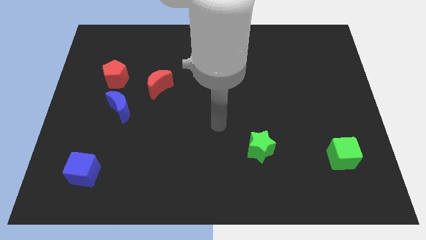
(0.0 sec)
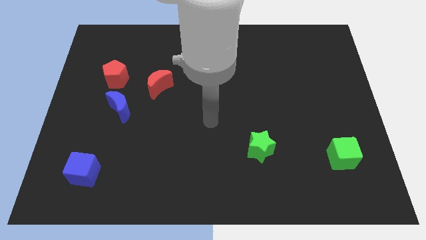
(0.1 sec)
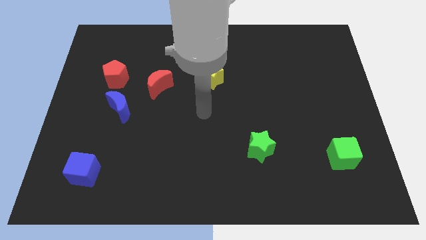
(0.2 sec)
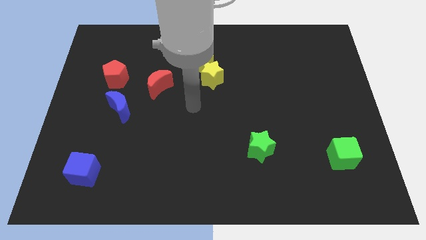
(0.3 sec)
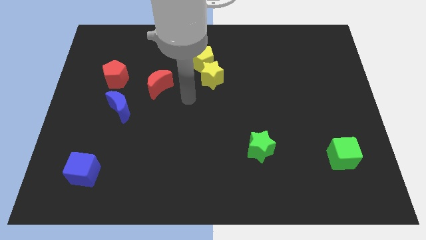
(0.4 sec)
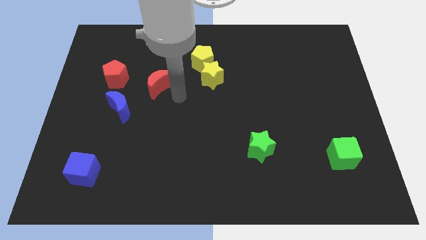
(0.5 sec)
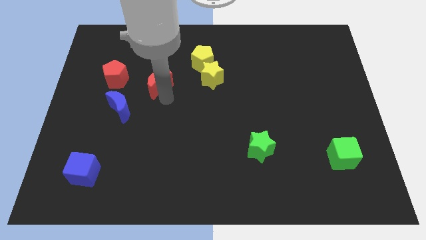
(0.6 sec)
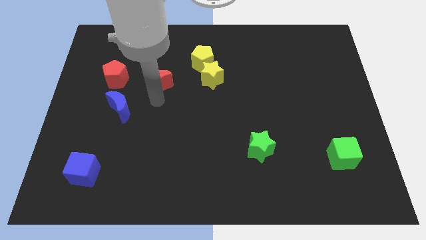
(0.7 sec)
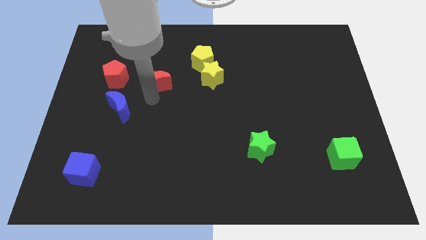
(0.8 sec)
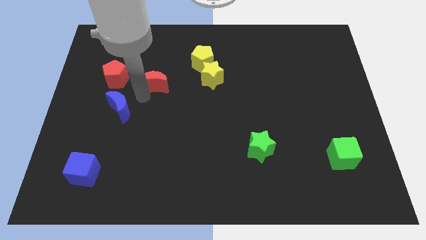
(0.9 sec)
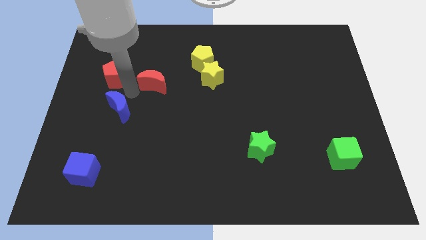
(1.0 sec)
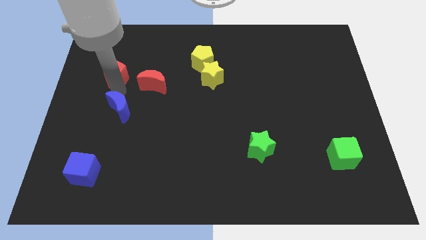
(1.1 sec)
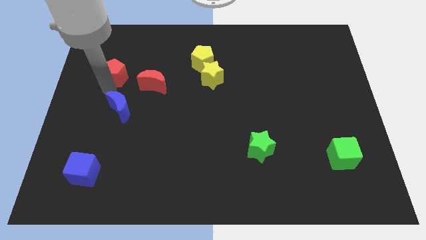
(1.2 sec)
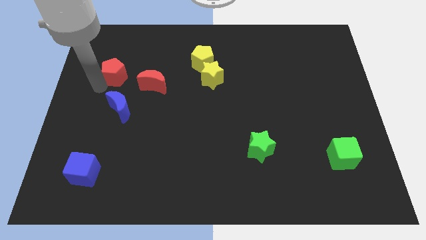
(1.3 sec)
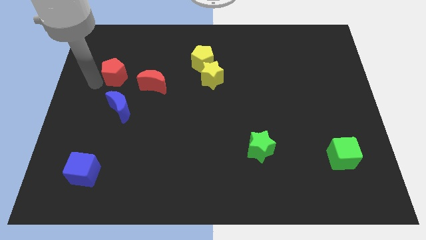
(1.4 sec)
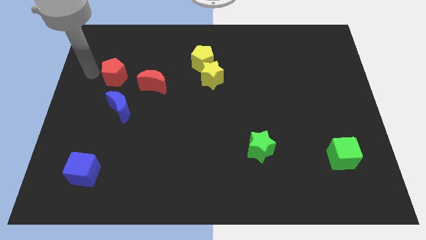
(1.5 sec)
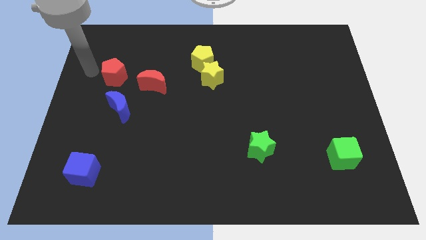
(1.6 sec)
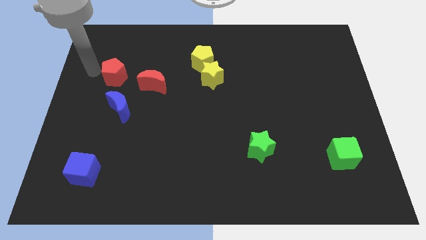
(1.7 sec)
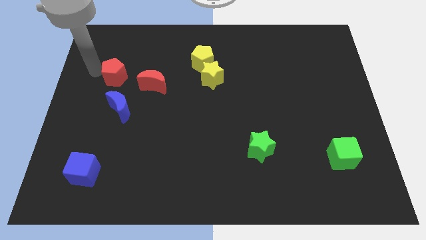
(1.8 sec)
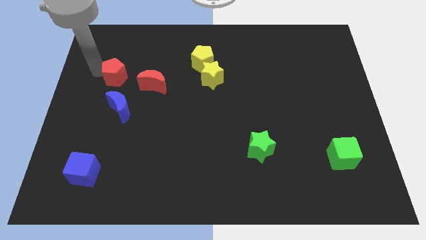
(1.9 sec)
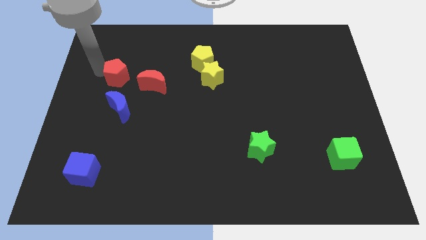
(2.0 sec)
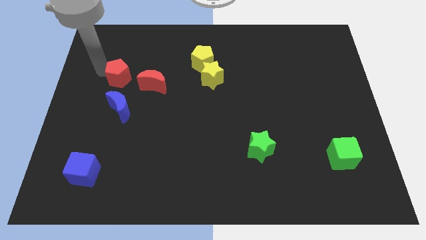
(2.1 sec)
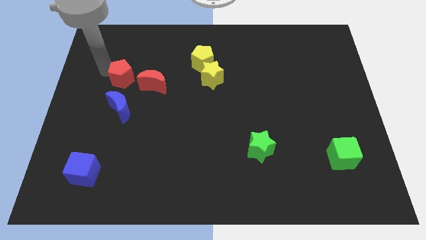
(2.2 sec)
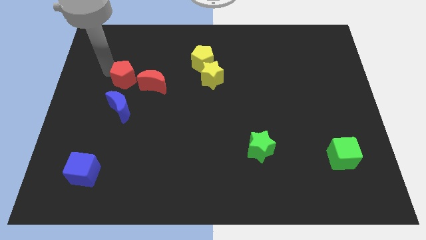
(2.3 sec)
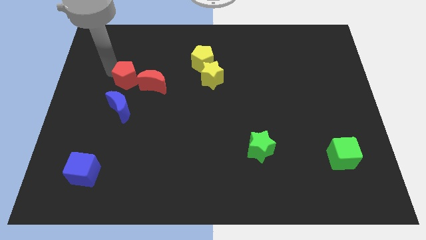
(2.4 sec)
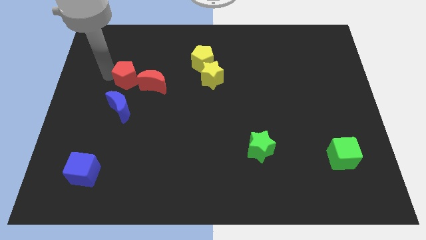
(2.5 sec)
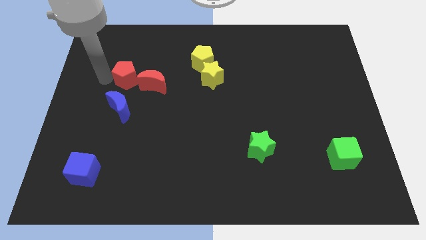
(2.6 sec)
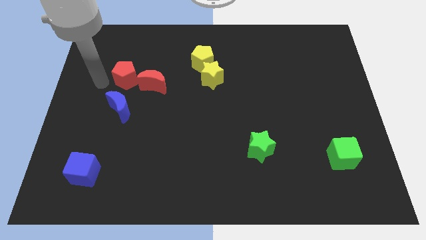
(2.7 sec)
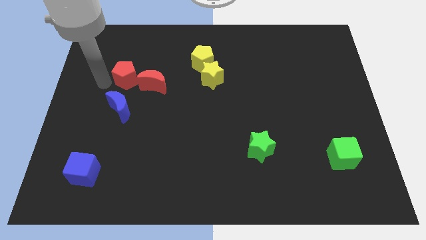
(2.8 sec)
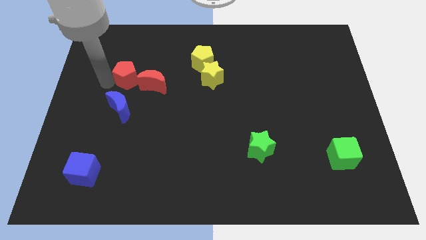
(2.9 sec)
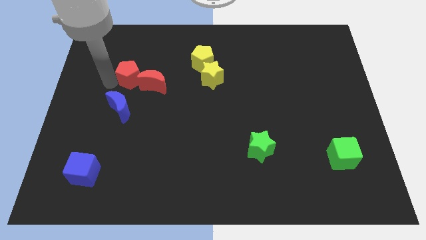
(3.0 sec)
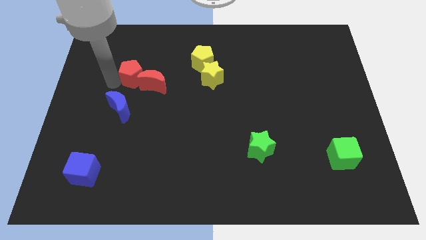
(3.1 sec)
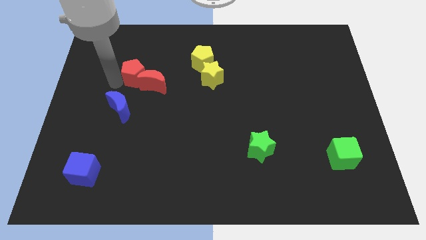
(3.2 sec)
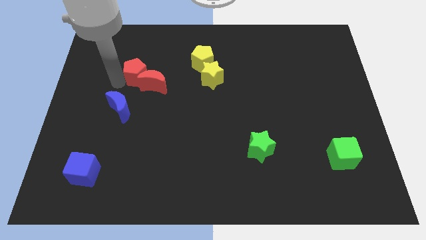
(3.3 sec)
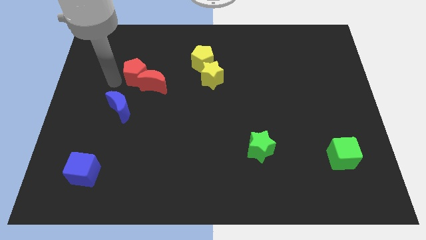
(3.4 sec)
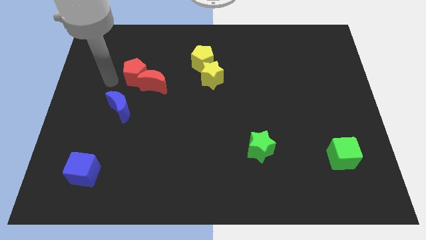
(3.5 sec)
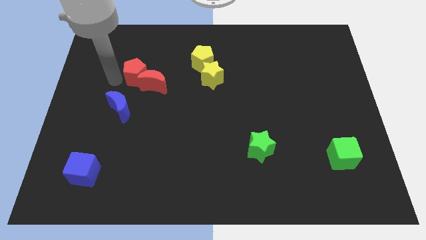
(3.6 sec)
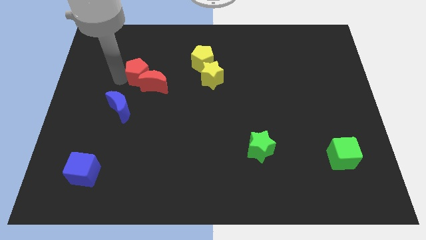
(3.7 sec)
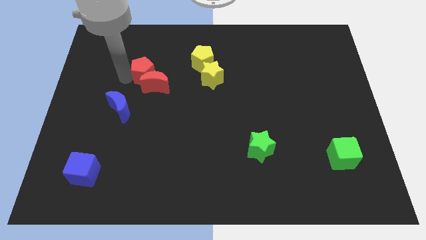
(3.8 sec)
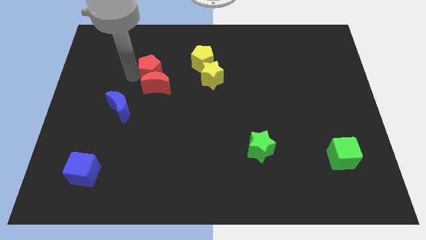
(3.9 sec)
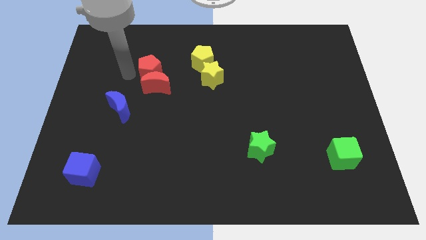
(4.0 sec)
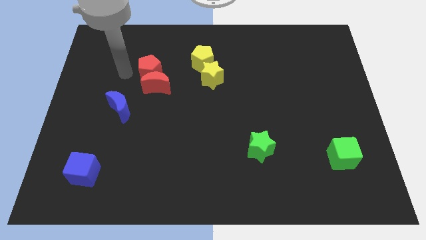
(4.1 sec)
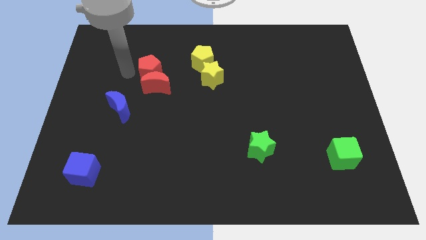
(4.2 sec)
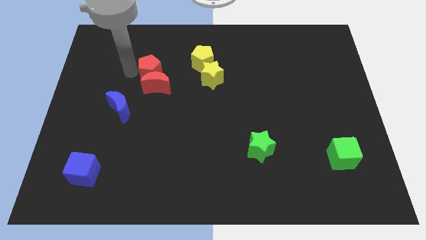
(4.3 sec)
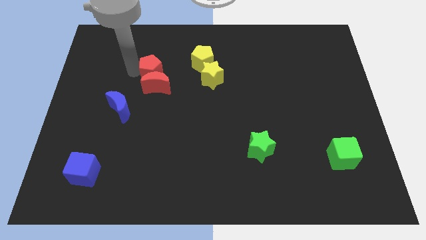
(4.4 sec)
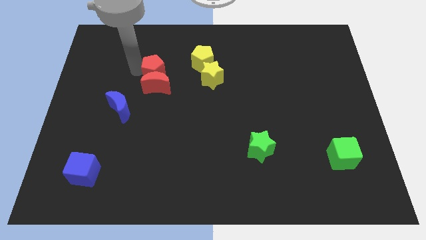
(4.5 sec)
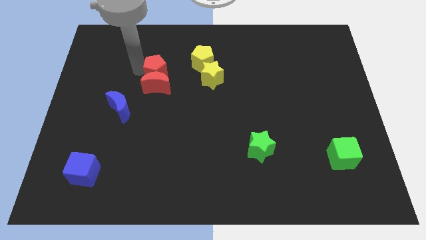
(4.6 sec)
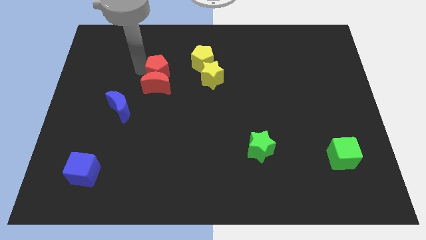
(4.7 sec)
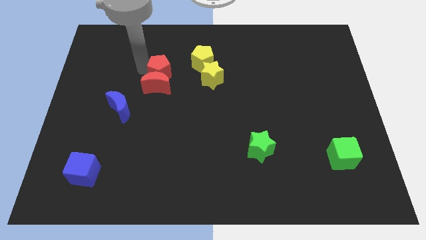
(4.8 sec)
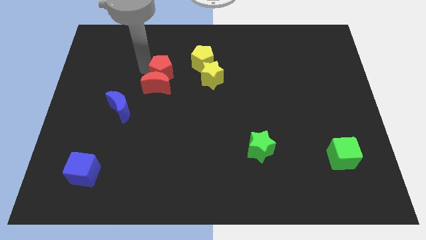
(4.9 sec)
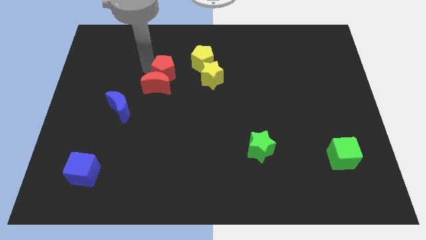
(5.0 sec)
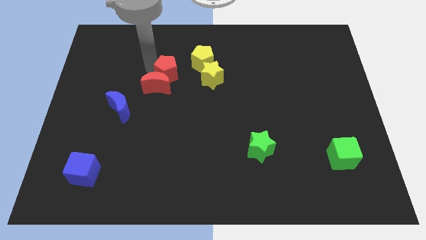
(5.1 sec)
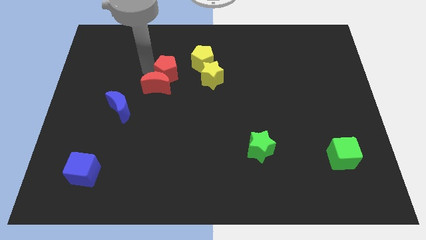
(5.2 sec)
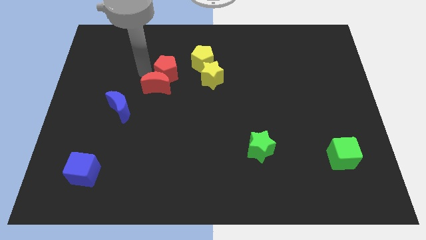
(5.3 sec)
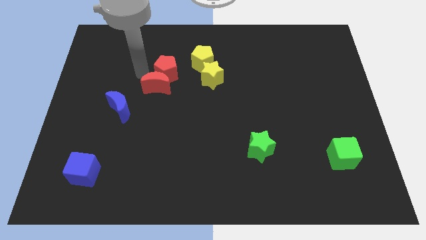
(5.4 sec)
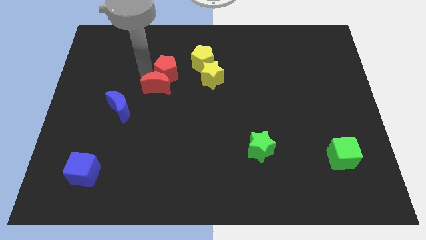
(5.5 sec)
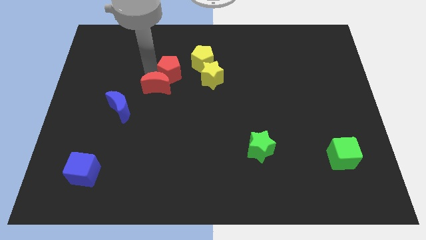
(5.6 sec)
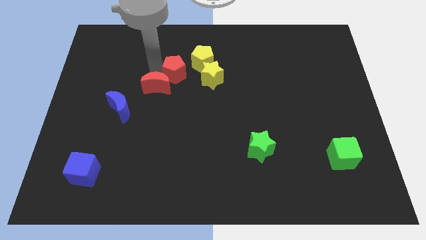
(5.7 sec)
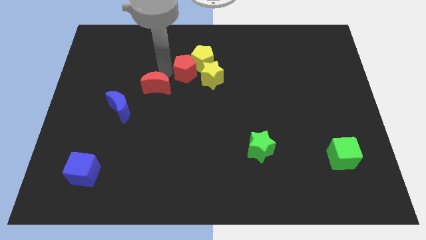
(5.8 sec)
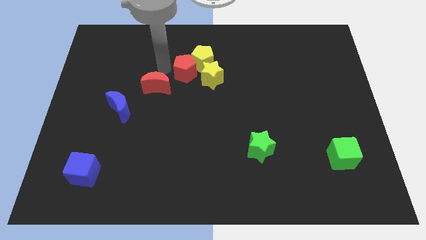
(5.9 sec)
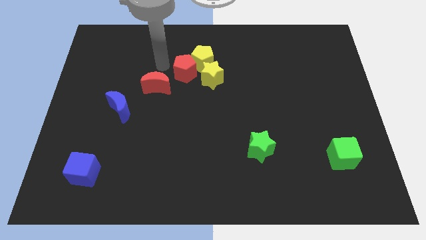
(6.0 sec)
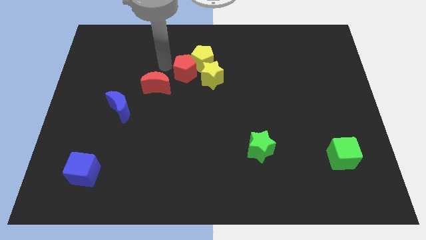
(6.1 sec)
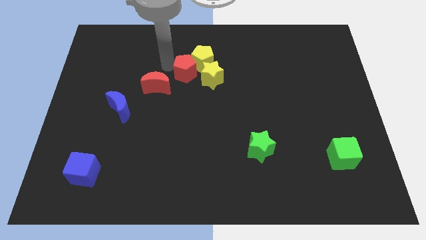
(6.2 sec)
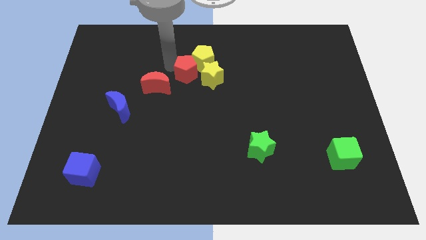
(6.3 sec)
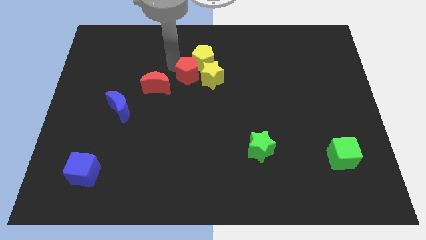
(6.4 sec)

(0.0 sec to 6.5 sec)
move the red pentagon to the yellow star

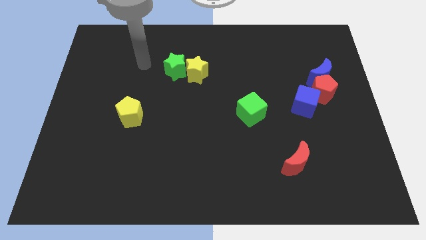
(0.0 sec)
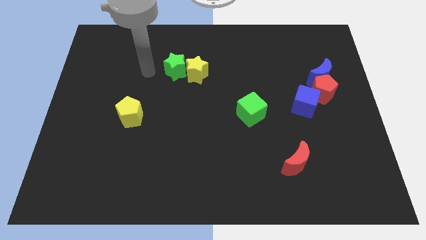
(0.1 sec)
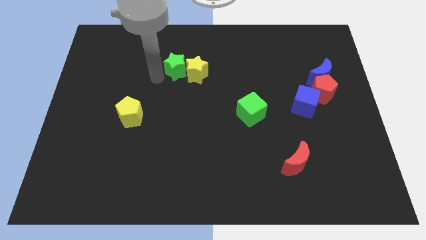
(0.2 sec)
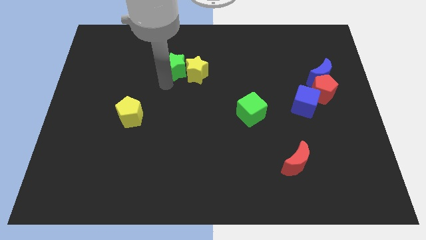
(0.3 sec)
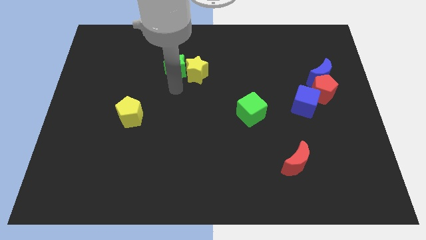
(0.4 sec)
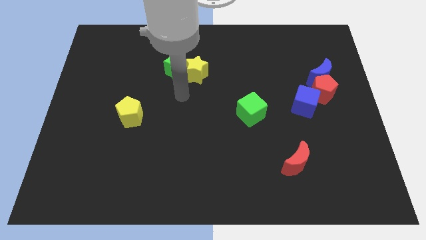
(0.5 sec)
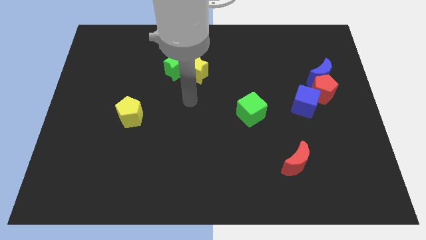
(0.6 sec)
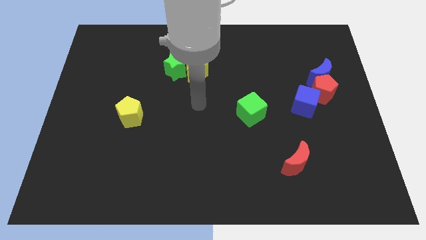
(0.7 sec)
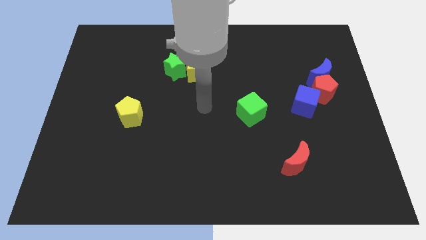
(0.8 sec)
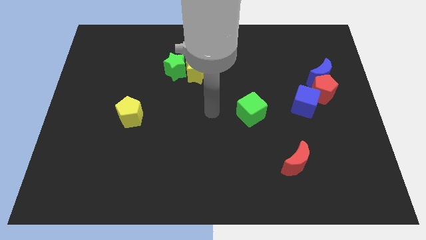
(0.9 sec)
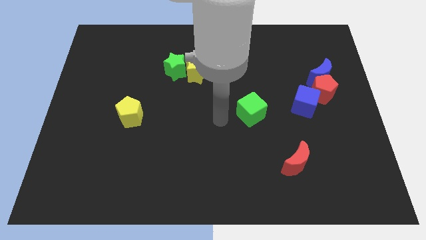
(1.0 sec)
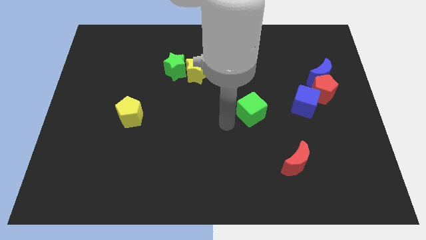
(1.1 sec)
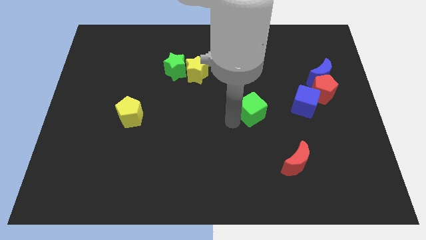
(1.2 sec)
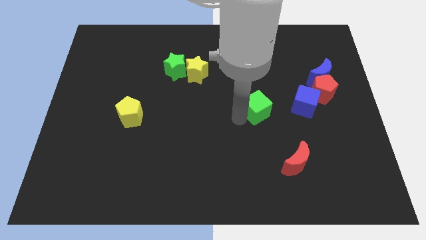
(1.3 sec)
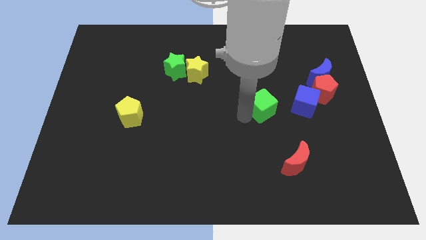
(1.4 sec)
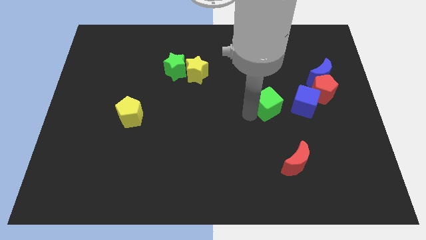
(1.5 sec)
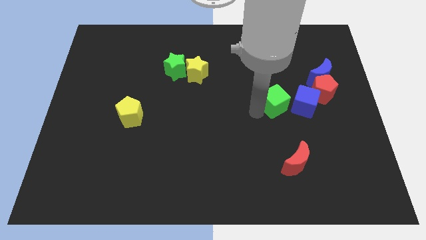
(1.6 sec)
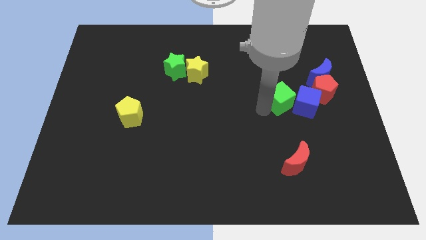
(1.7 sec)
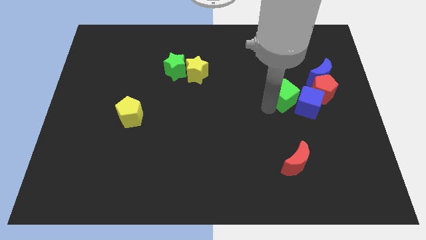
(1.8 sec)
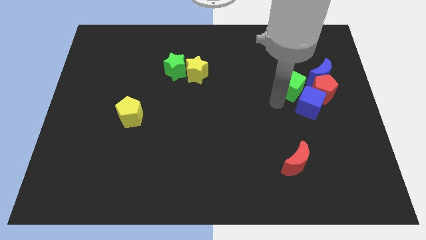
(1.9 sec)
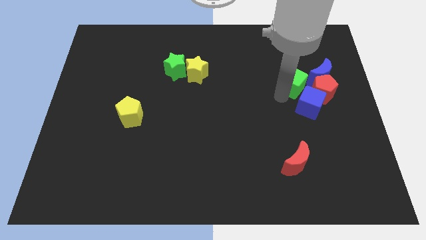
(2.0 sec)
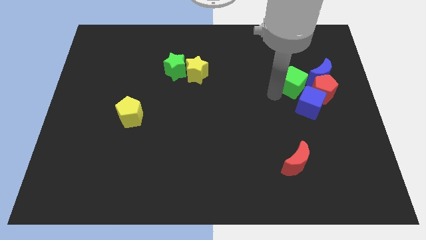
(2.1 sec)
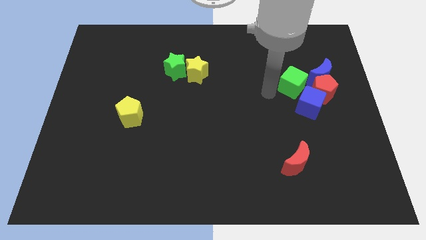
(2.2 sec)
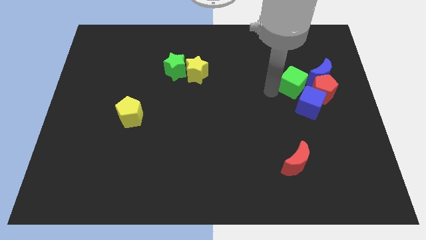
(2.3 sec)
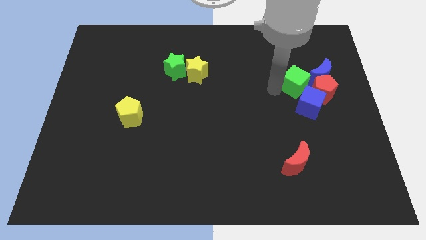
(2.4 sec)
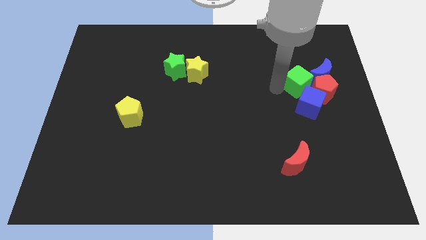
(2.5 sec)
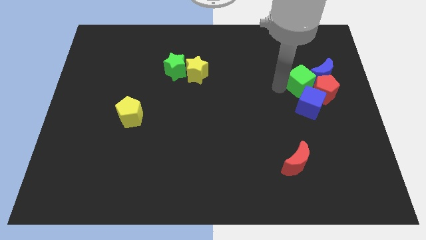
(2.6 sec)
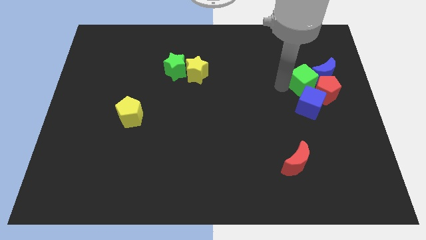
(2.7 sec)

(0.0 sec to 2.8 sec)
slide the green cube close to the blue moon
